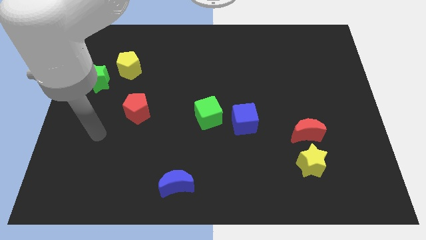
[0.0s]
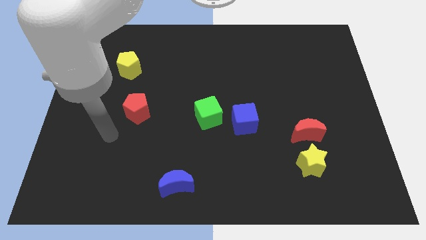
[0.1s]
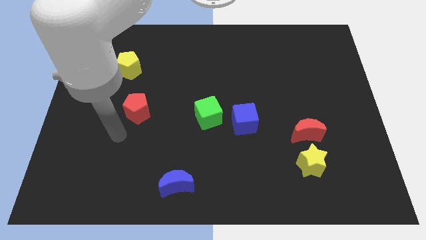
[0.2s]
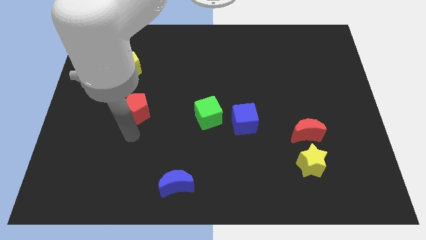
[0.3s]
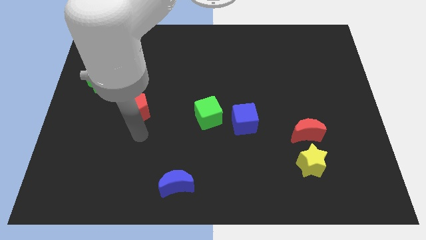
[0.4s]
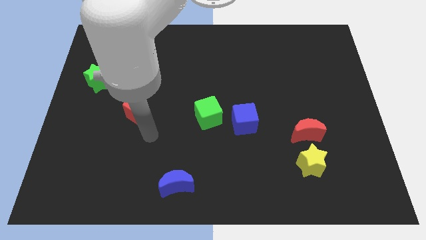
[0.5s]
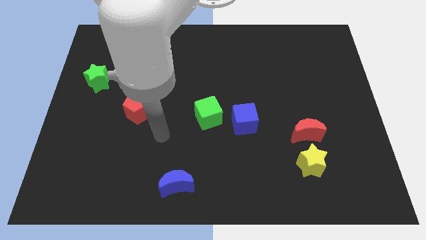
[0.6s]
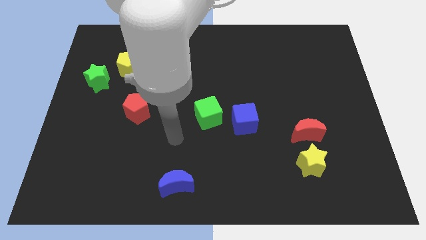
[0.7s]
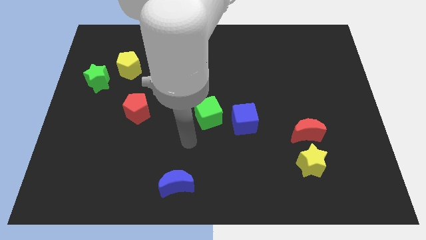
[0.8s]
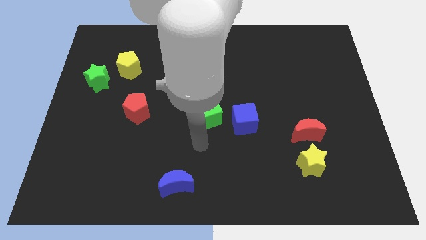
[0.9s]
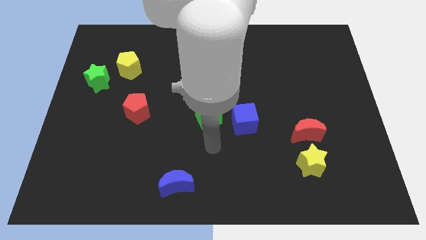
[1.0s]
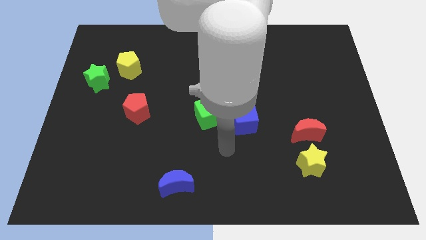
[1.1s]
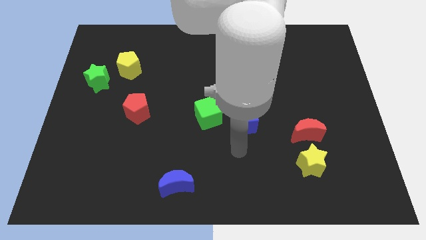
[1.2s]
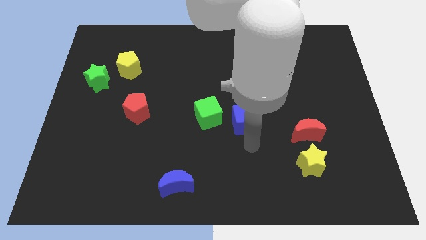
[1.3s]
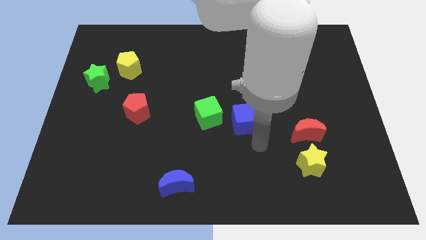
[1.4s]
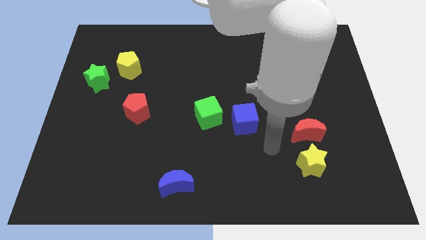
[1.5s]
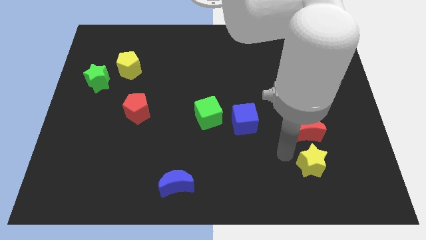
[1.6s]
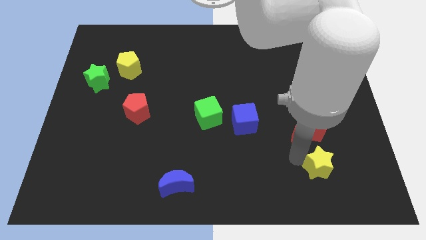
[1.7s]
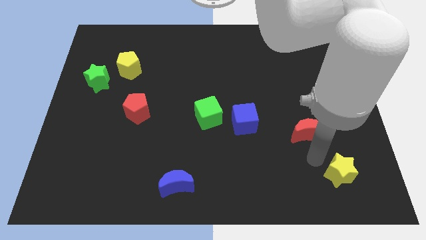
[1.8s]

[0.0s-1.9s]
separate the red moon from the yellow star

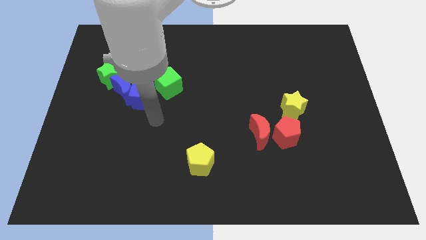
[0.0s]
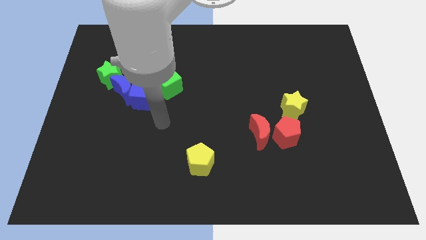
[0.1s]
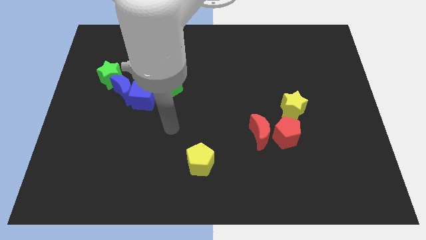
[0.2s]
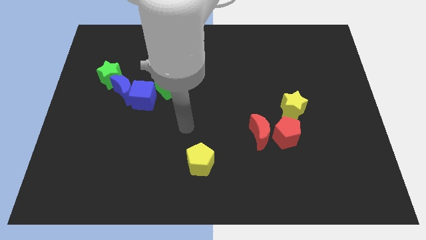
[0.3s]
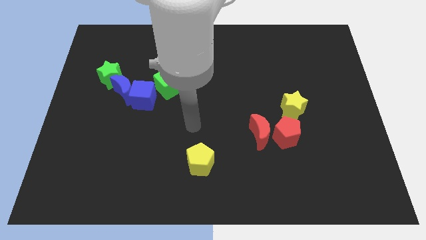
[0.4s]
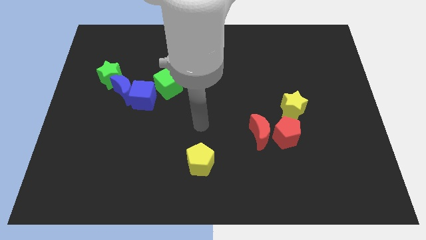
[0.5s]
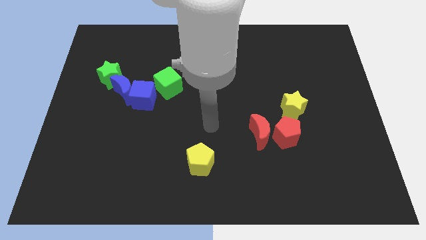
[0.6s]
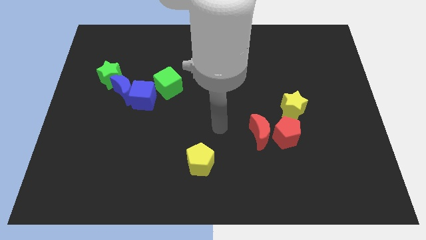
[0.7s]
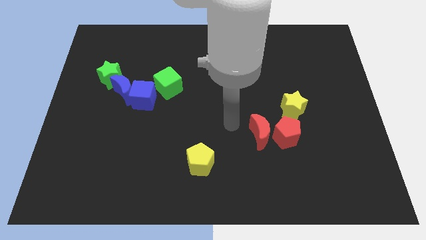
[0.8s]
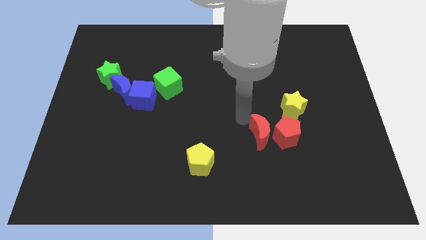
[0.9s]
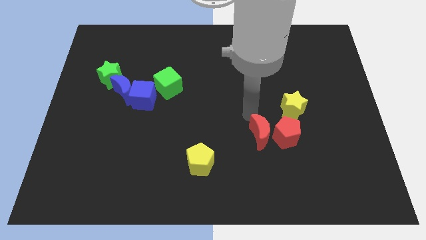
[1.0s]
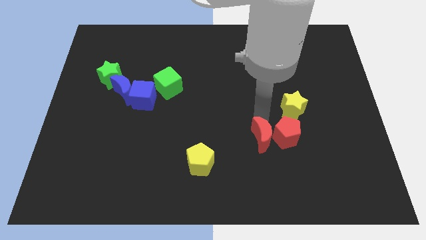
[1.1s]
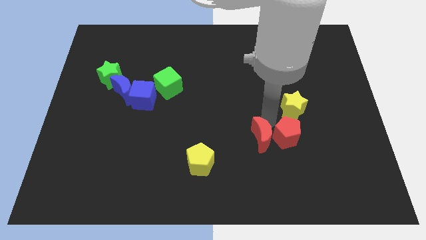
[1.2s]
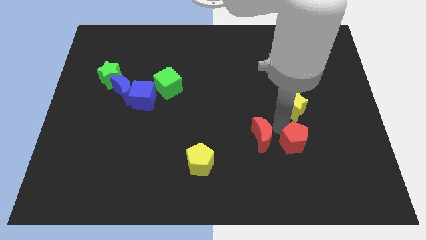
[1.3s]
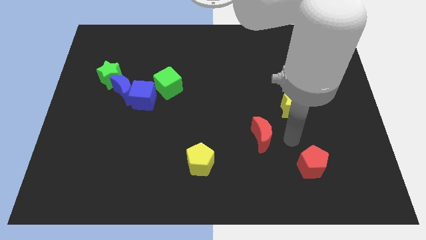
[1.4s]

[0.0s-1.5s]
separate the red moon from the red pentagon

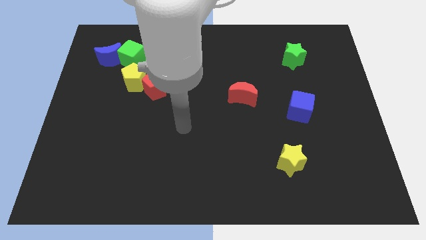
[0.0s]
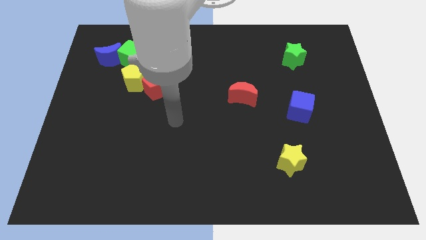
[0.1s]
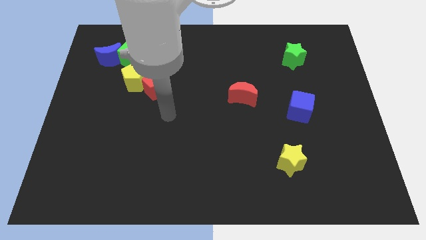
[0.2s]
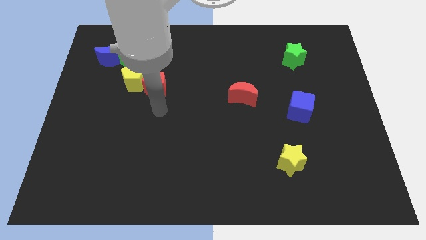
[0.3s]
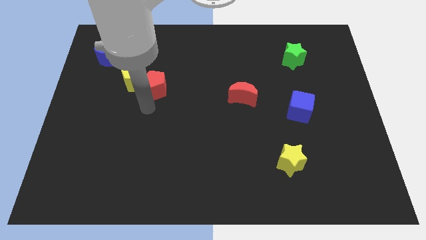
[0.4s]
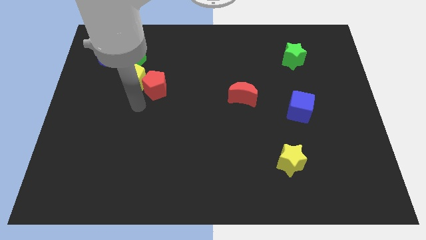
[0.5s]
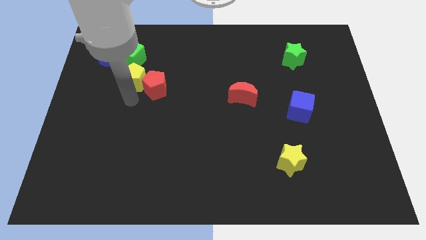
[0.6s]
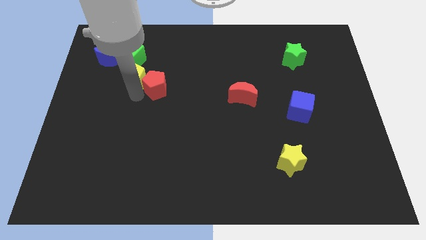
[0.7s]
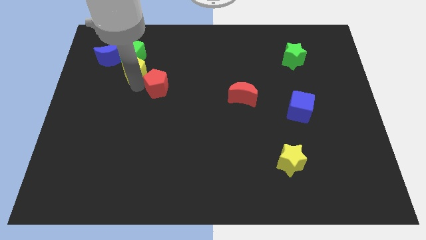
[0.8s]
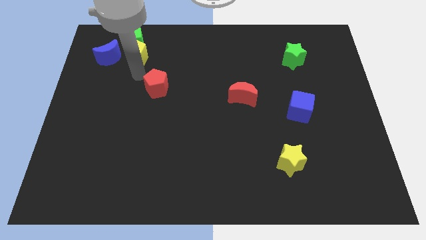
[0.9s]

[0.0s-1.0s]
move the red pentagon away from the yellow pentagon

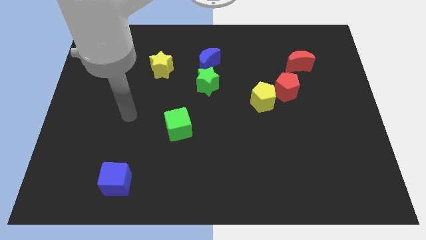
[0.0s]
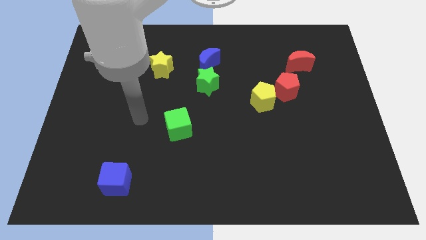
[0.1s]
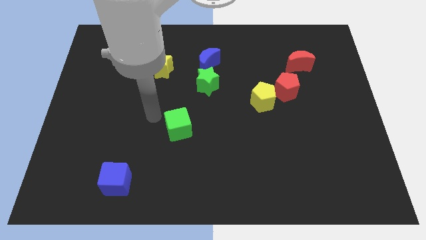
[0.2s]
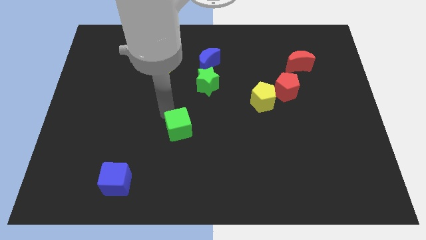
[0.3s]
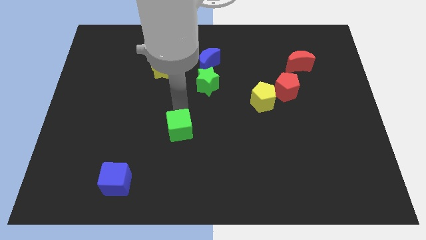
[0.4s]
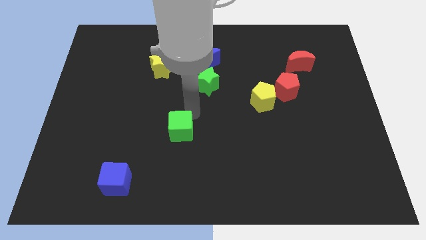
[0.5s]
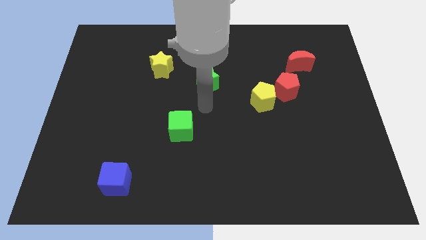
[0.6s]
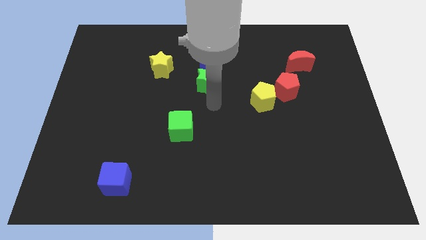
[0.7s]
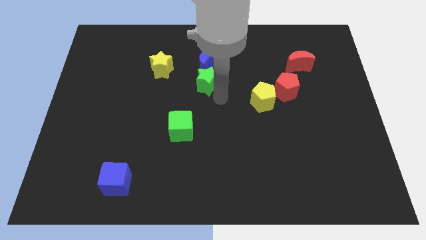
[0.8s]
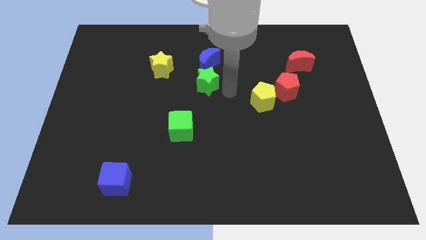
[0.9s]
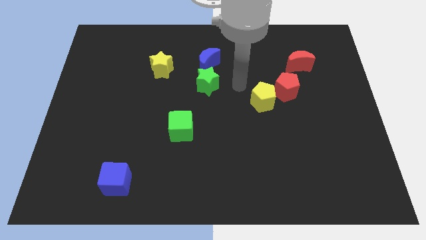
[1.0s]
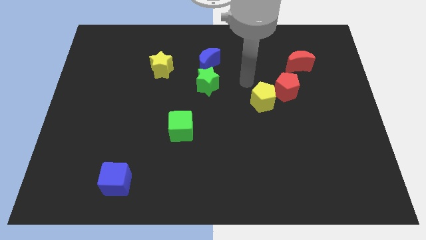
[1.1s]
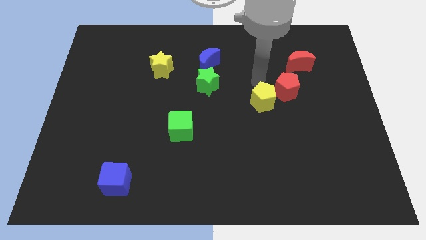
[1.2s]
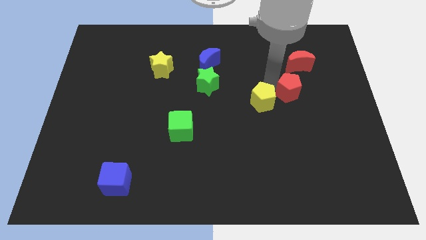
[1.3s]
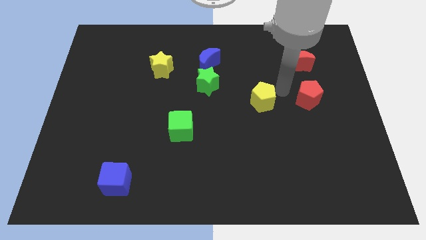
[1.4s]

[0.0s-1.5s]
move the yellow pentagon away from the red pentagon

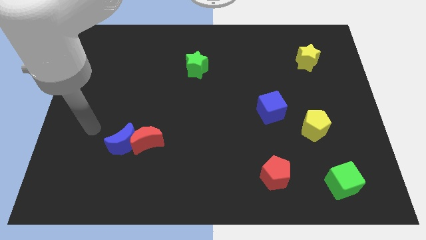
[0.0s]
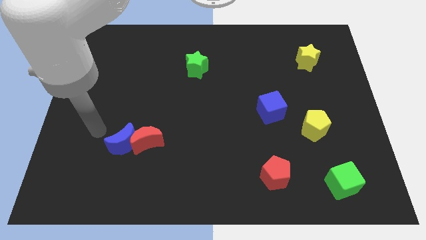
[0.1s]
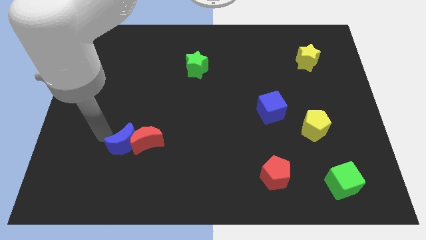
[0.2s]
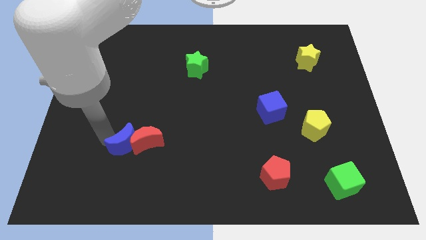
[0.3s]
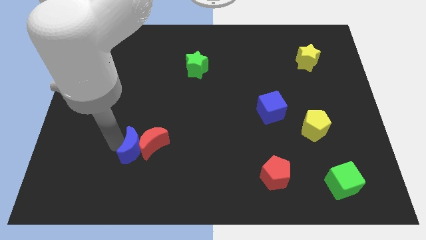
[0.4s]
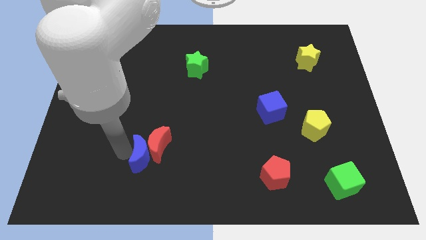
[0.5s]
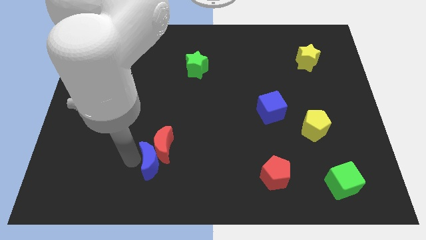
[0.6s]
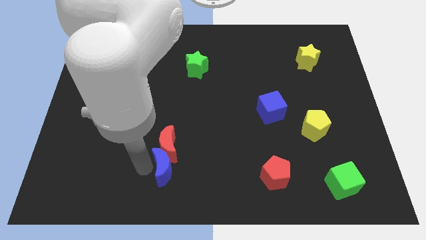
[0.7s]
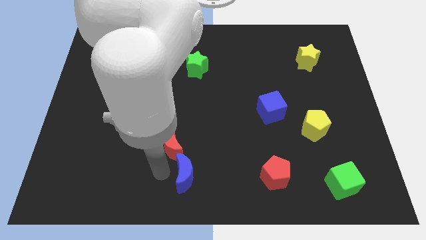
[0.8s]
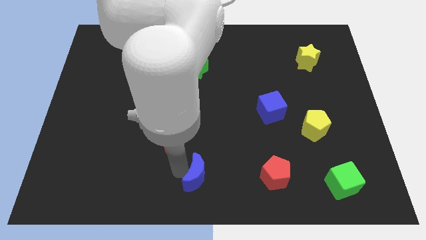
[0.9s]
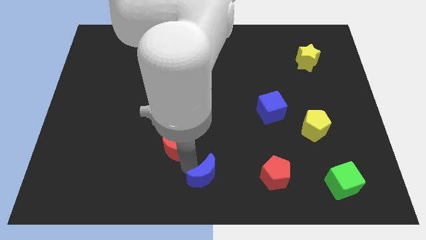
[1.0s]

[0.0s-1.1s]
pull the red moon apart from the blue moon

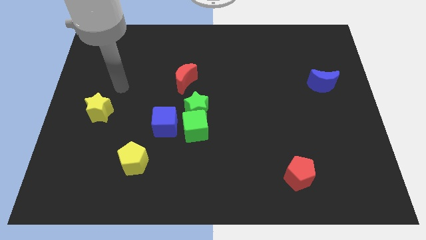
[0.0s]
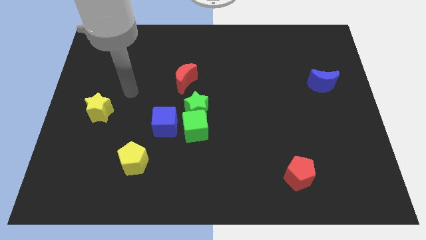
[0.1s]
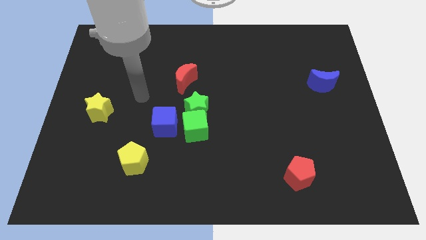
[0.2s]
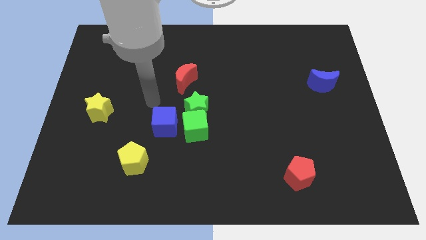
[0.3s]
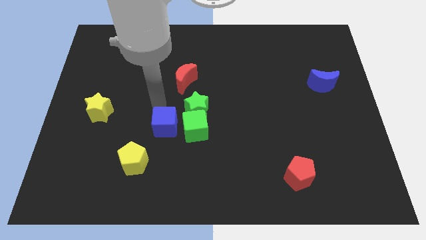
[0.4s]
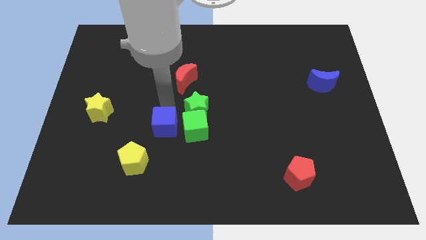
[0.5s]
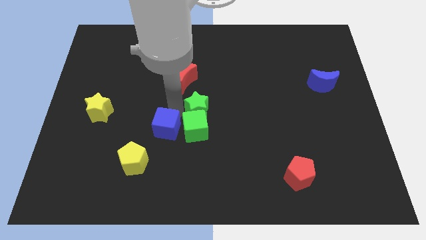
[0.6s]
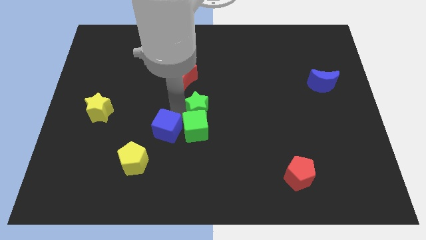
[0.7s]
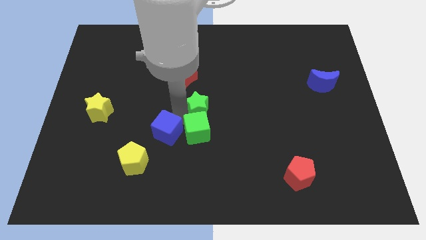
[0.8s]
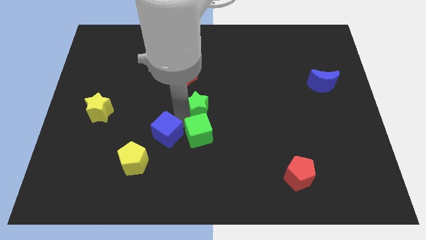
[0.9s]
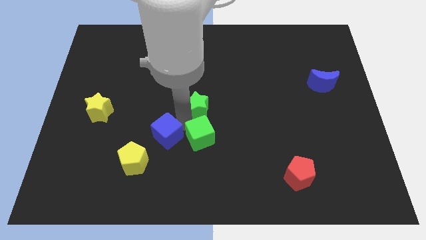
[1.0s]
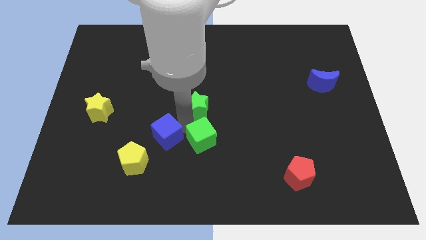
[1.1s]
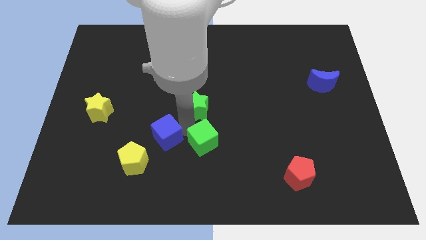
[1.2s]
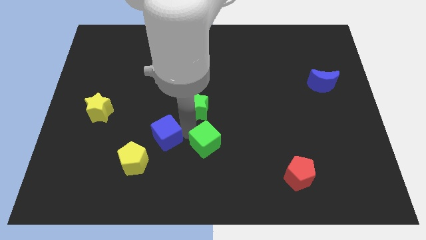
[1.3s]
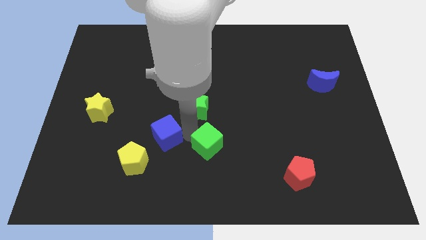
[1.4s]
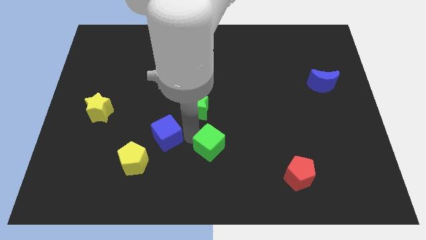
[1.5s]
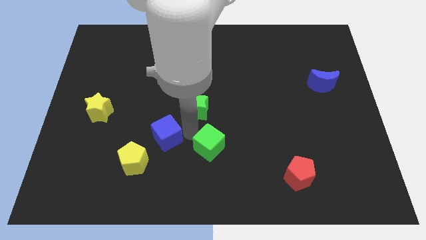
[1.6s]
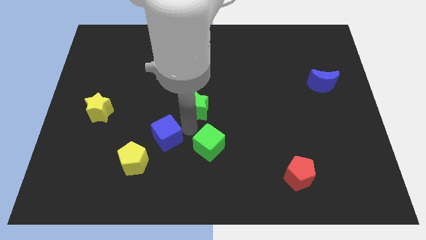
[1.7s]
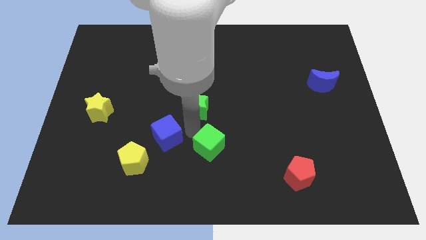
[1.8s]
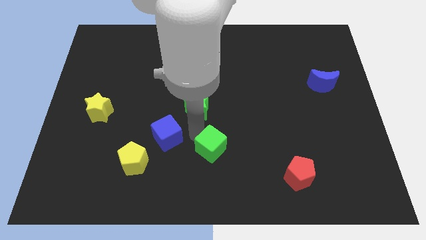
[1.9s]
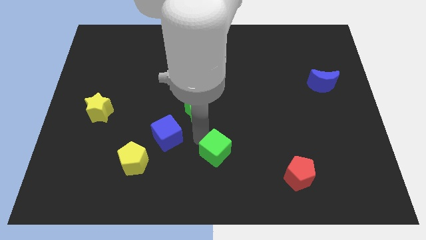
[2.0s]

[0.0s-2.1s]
pull the green cube apart from the green star and blue cube
